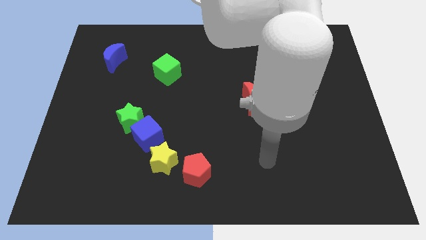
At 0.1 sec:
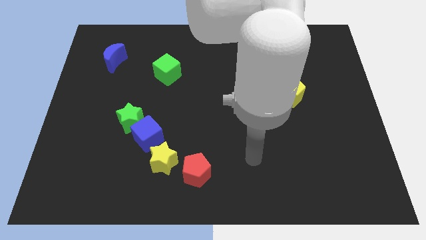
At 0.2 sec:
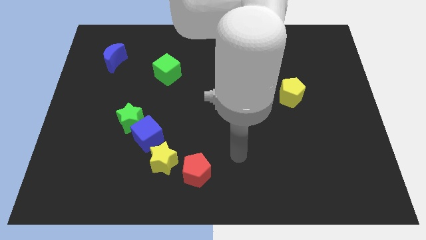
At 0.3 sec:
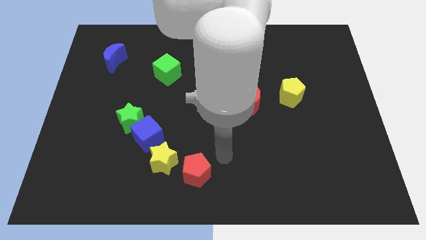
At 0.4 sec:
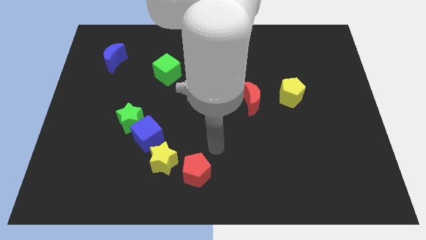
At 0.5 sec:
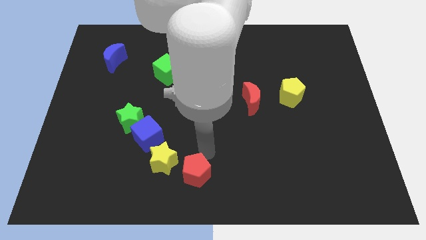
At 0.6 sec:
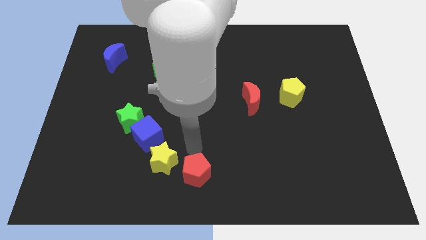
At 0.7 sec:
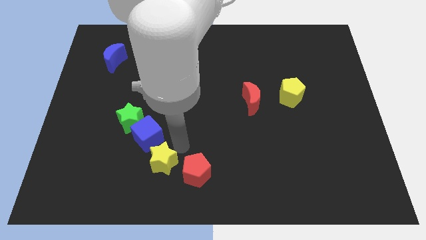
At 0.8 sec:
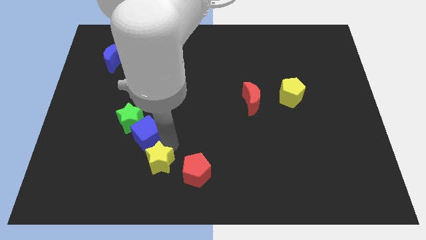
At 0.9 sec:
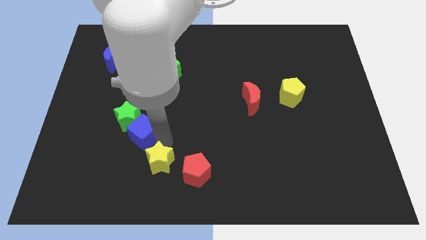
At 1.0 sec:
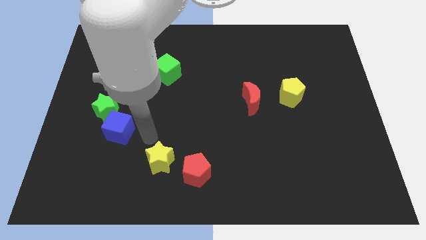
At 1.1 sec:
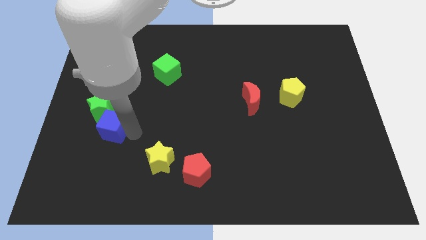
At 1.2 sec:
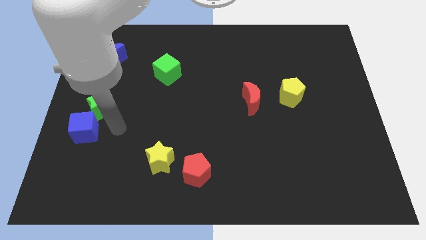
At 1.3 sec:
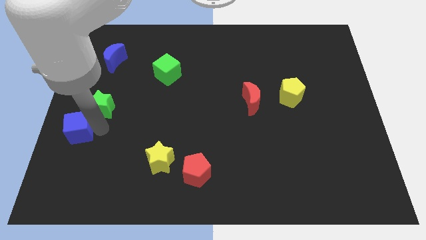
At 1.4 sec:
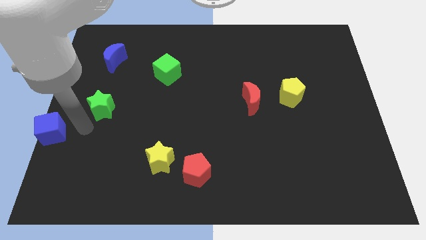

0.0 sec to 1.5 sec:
move the green star away from the blue cube

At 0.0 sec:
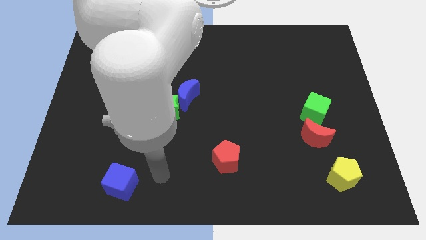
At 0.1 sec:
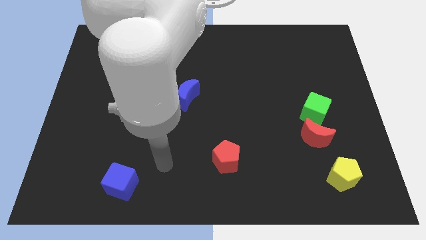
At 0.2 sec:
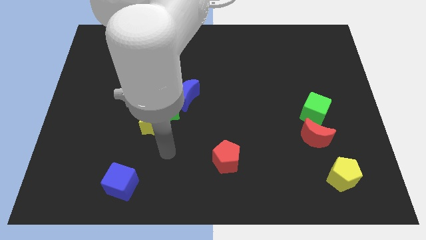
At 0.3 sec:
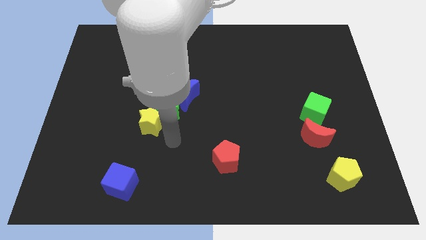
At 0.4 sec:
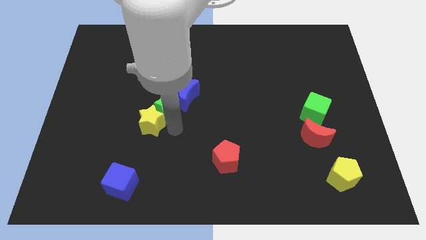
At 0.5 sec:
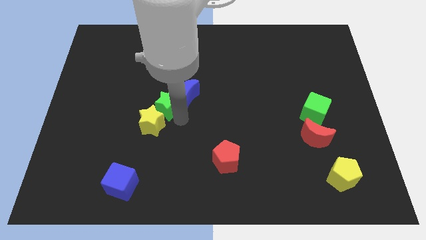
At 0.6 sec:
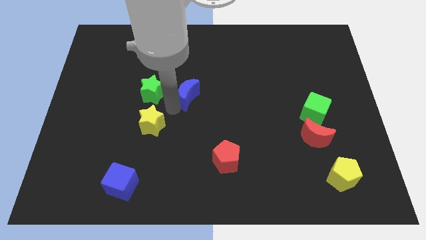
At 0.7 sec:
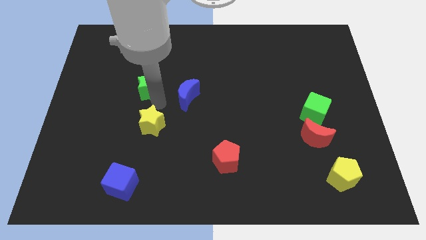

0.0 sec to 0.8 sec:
separate the yellow star from the green star

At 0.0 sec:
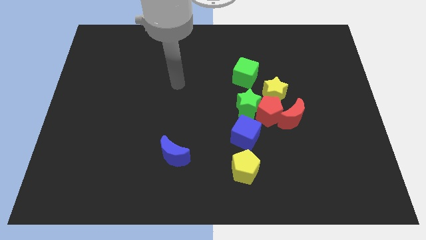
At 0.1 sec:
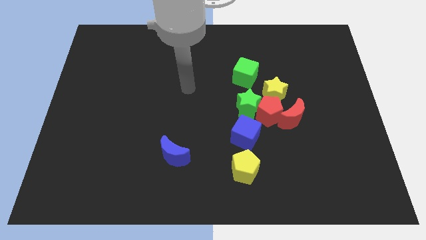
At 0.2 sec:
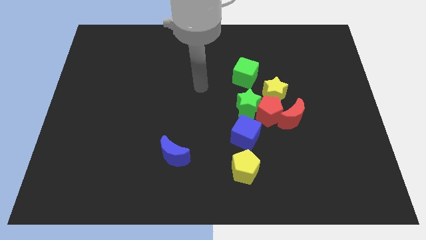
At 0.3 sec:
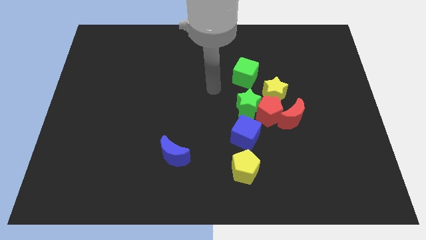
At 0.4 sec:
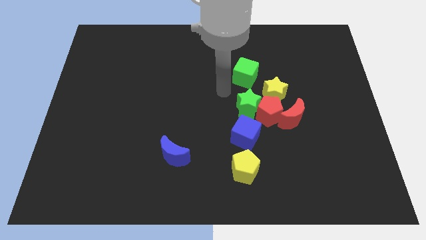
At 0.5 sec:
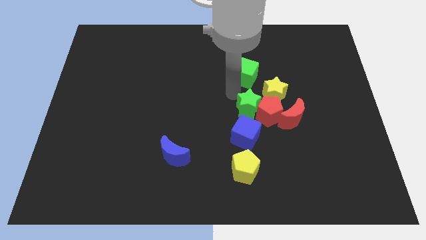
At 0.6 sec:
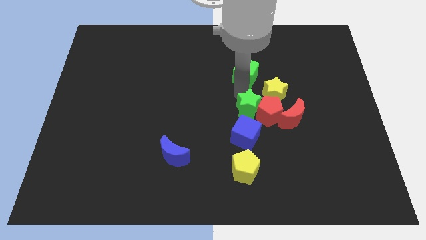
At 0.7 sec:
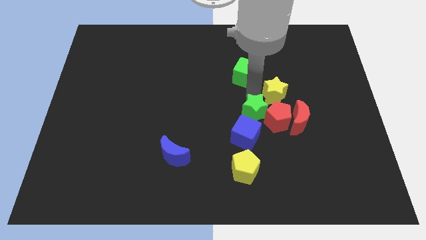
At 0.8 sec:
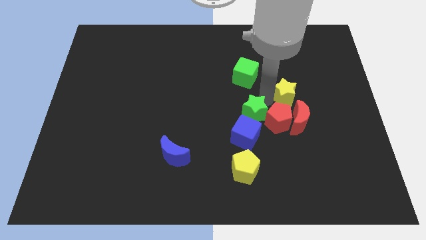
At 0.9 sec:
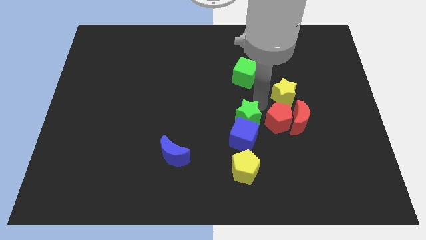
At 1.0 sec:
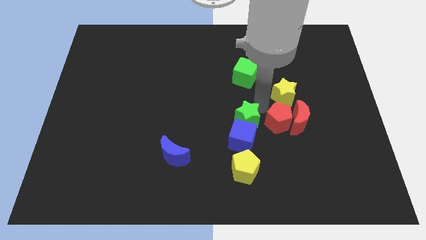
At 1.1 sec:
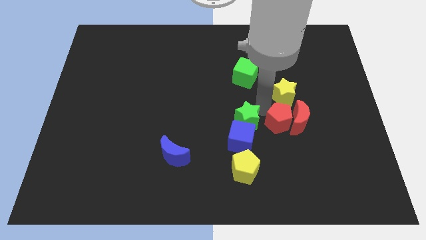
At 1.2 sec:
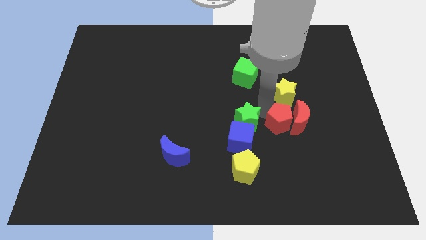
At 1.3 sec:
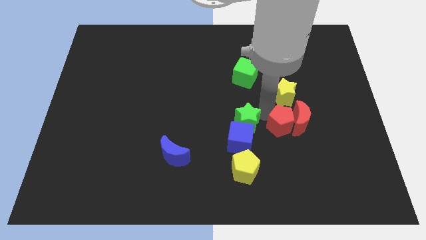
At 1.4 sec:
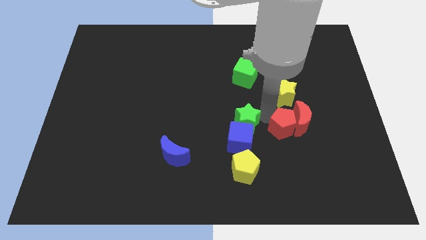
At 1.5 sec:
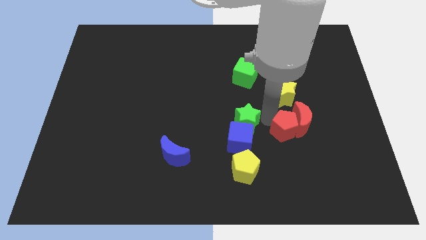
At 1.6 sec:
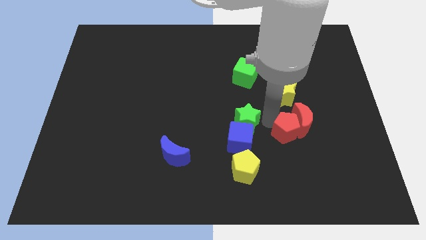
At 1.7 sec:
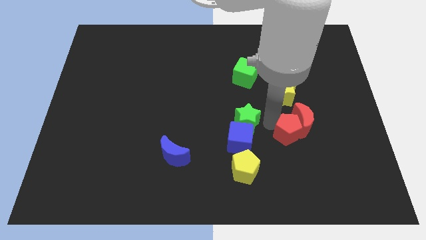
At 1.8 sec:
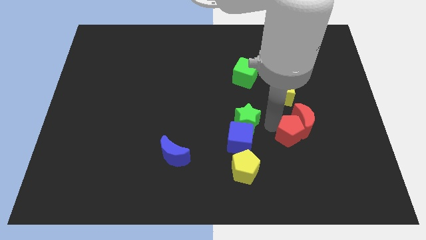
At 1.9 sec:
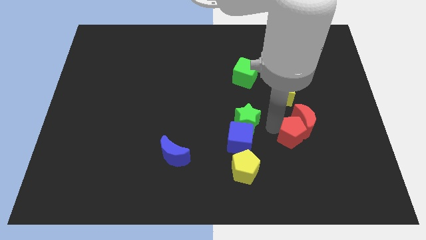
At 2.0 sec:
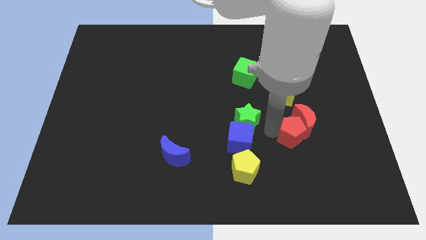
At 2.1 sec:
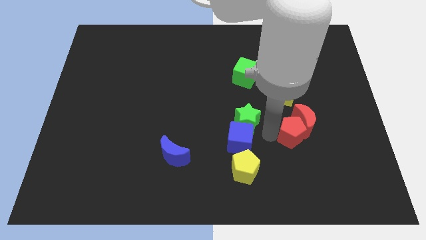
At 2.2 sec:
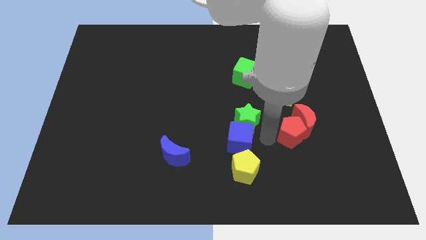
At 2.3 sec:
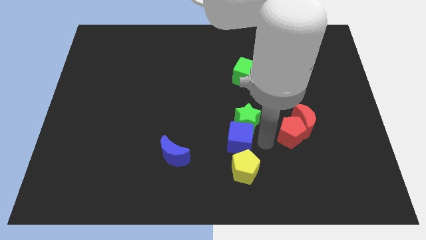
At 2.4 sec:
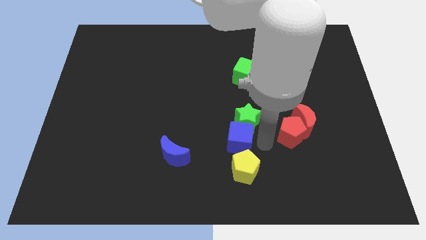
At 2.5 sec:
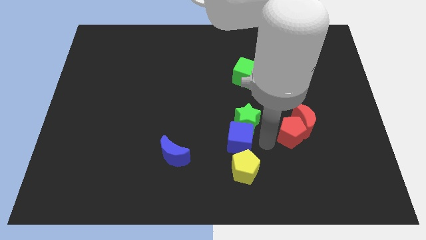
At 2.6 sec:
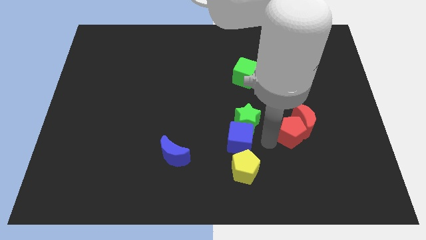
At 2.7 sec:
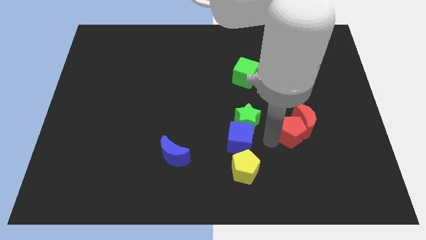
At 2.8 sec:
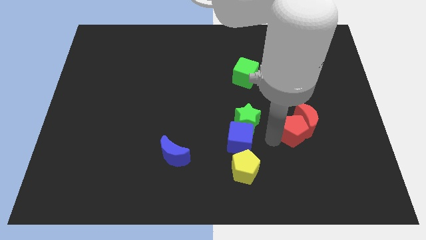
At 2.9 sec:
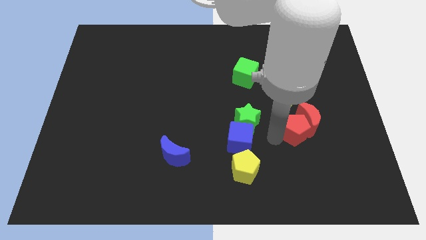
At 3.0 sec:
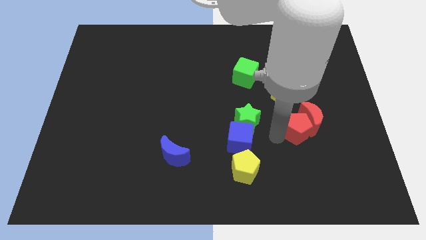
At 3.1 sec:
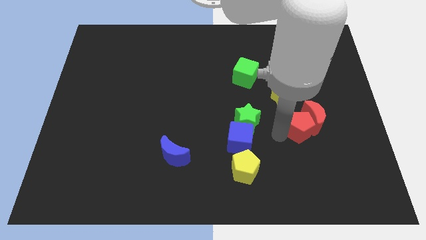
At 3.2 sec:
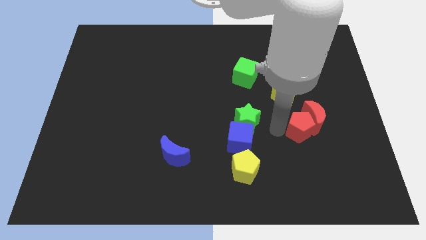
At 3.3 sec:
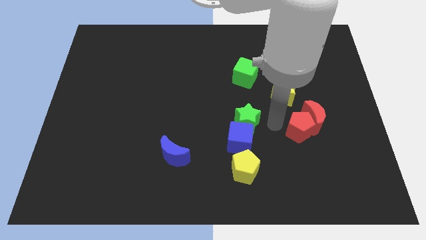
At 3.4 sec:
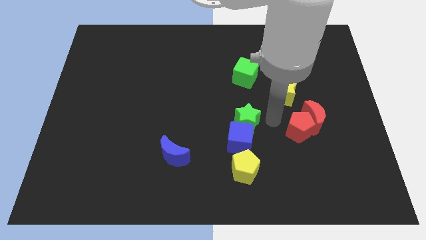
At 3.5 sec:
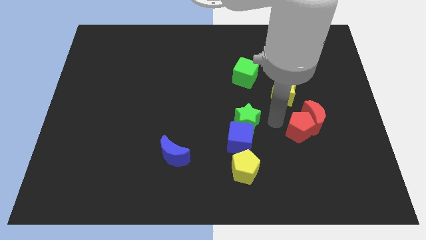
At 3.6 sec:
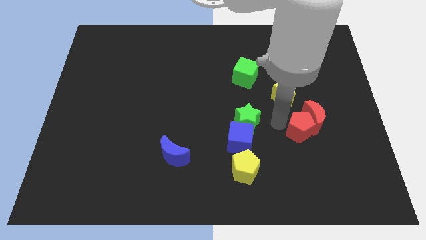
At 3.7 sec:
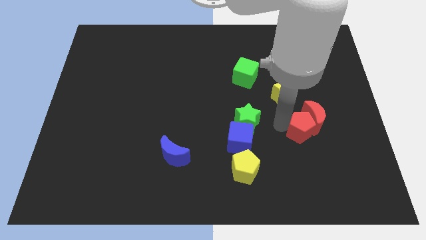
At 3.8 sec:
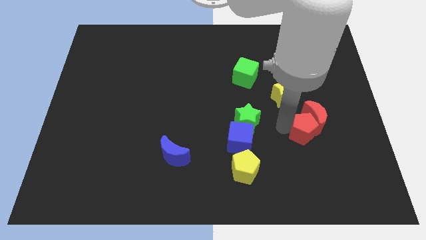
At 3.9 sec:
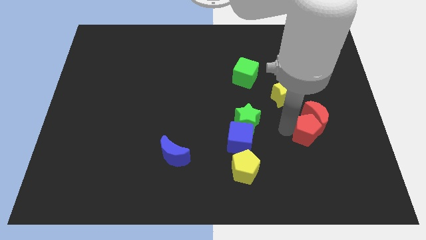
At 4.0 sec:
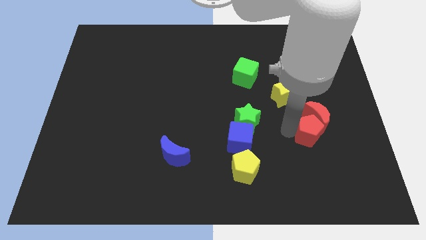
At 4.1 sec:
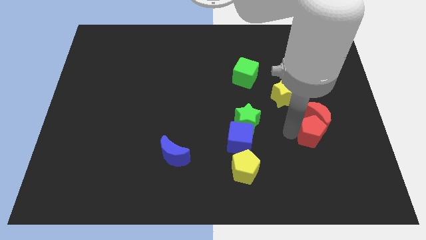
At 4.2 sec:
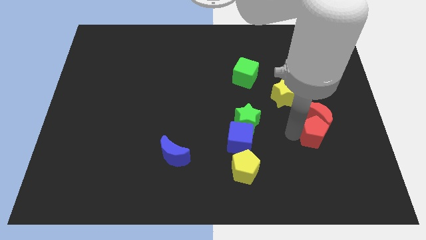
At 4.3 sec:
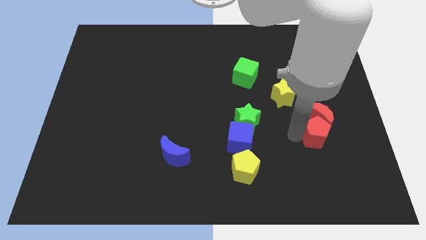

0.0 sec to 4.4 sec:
move the red pentagon away from the clump

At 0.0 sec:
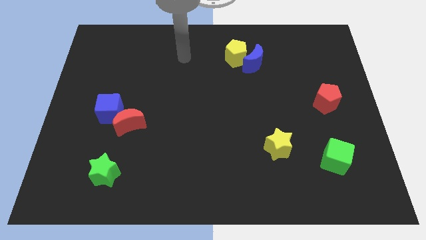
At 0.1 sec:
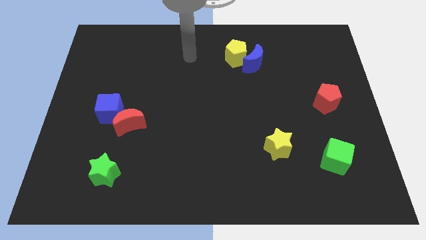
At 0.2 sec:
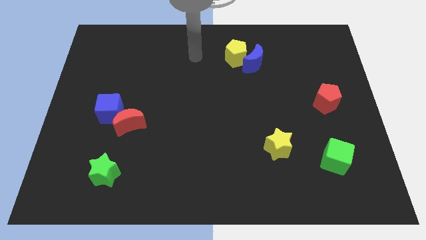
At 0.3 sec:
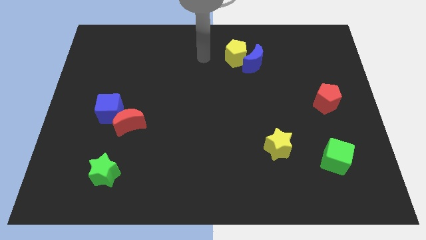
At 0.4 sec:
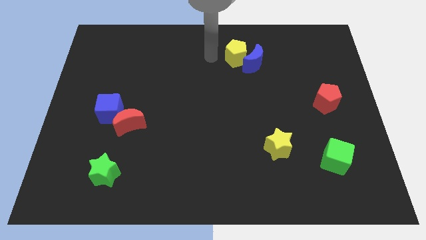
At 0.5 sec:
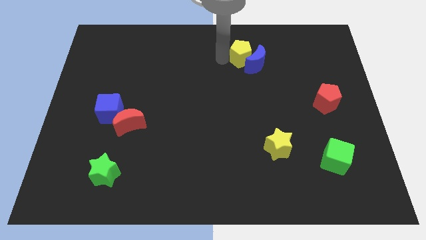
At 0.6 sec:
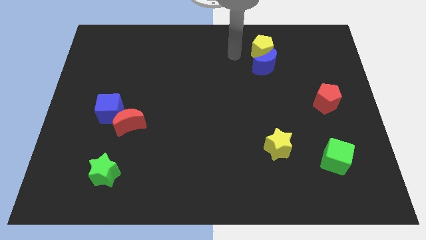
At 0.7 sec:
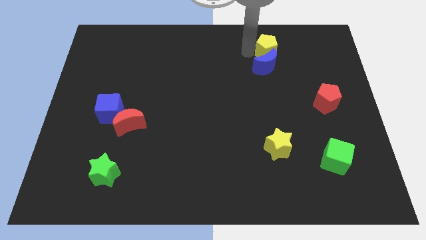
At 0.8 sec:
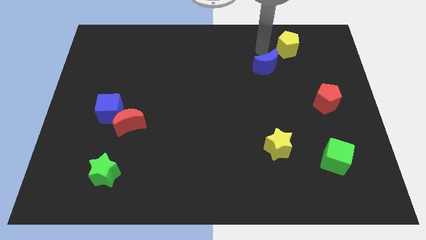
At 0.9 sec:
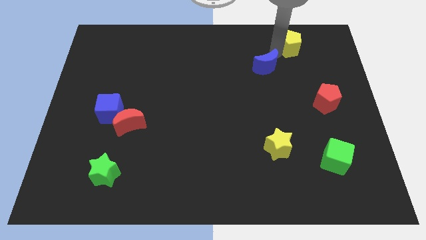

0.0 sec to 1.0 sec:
move the blue moon away from the yellow pentagon

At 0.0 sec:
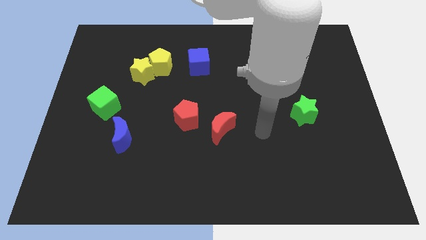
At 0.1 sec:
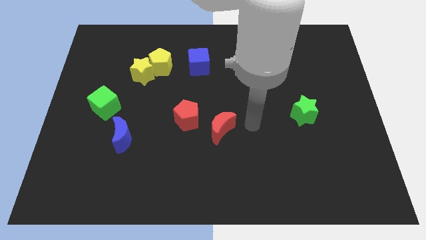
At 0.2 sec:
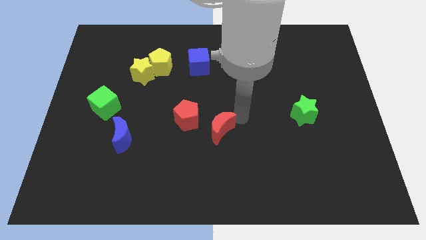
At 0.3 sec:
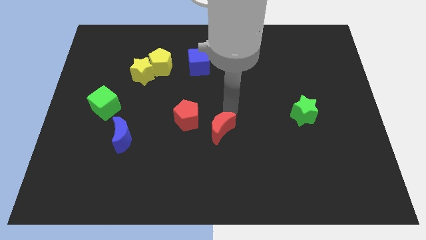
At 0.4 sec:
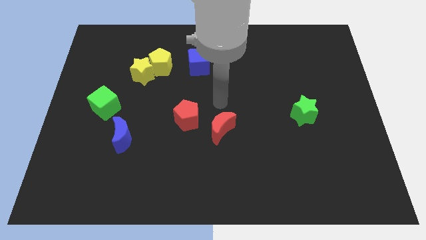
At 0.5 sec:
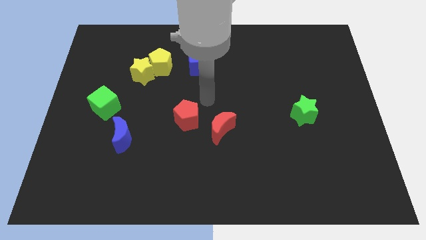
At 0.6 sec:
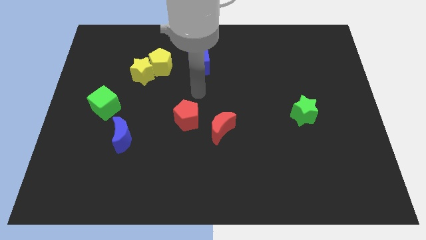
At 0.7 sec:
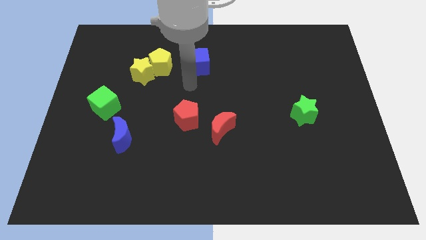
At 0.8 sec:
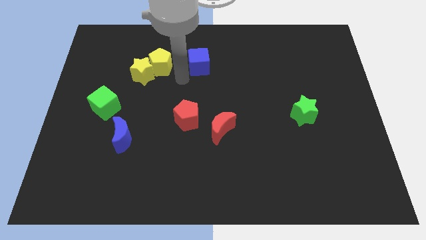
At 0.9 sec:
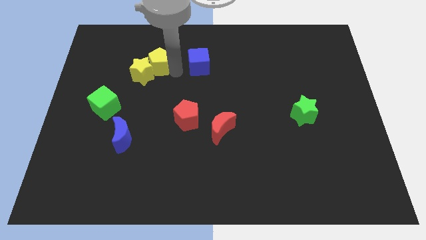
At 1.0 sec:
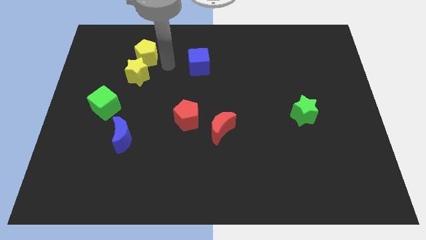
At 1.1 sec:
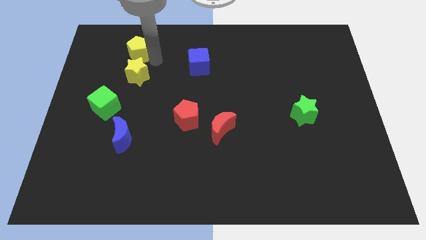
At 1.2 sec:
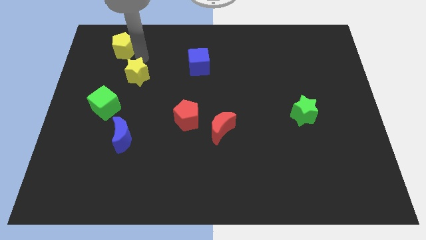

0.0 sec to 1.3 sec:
move the yellow star away from the yellow pentagon

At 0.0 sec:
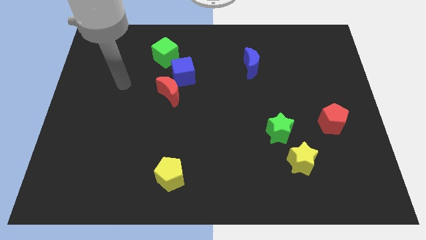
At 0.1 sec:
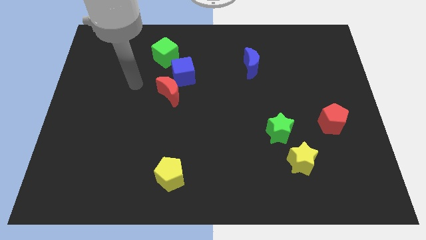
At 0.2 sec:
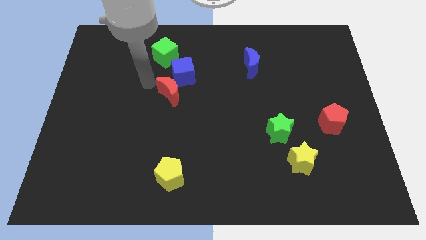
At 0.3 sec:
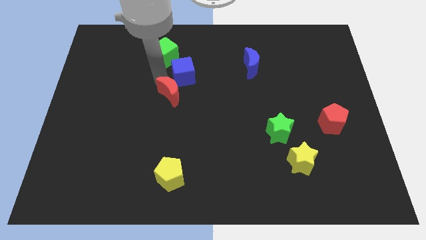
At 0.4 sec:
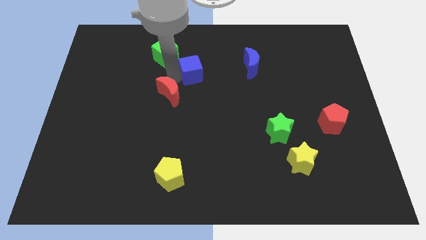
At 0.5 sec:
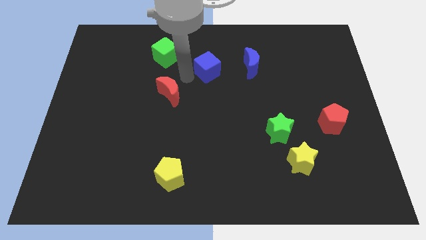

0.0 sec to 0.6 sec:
pull the red moon apart from the blue cube
